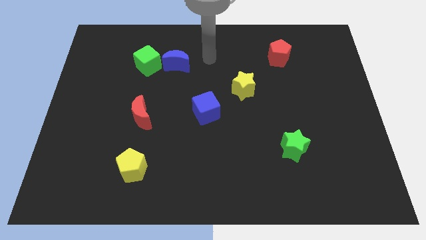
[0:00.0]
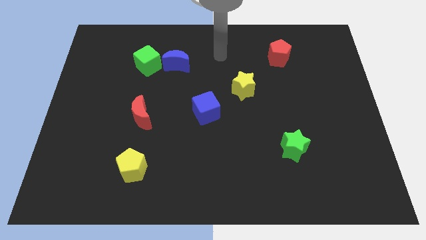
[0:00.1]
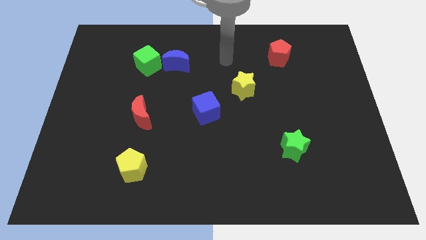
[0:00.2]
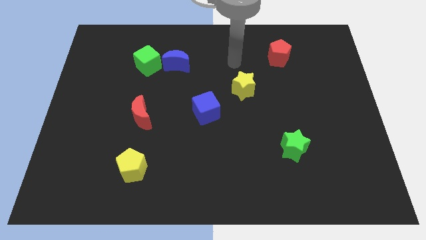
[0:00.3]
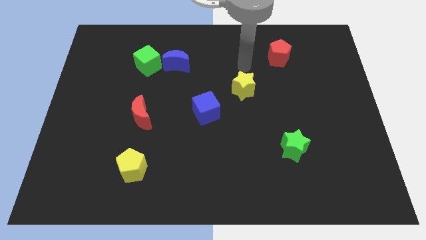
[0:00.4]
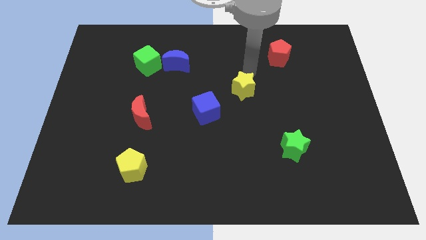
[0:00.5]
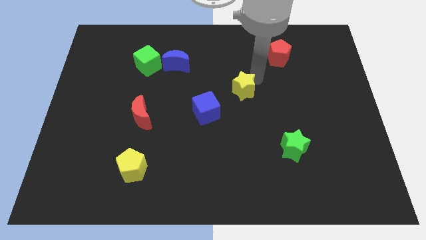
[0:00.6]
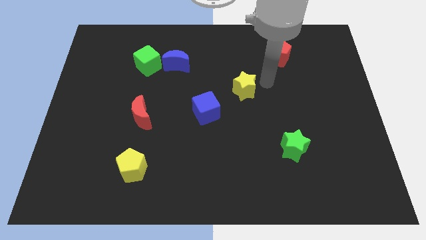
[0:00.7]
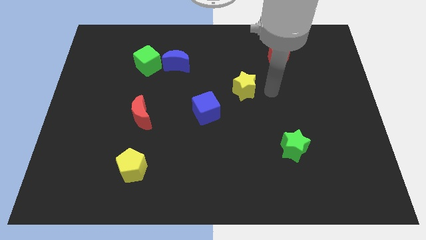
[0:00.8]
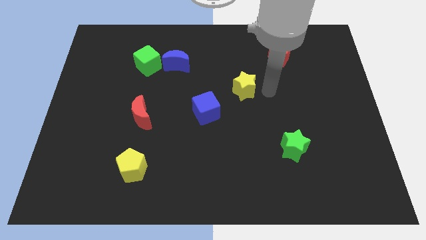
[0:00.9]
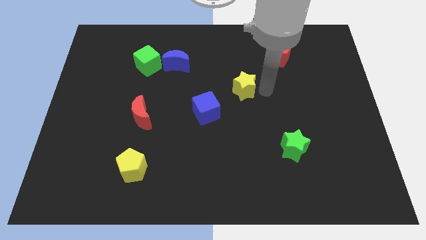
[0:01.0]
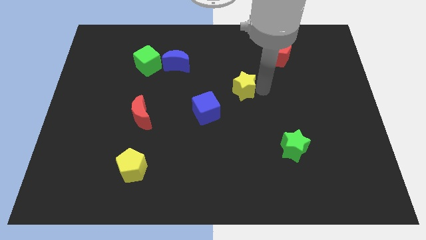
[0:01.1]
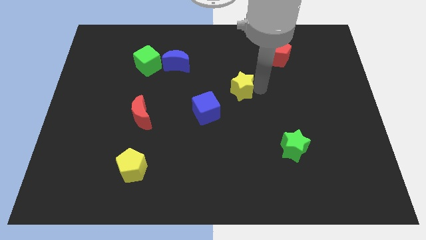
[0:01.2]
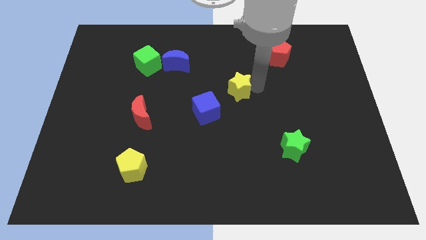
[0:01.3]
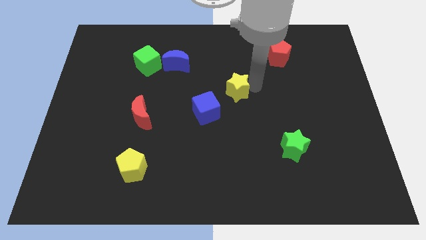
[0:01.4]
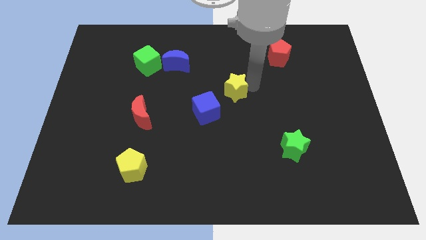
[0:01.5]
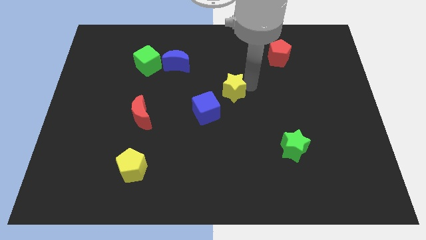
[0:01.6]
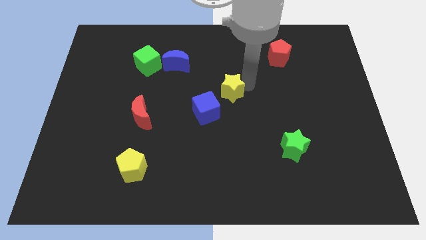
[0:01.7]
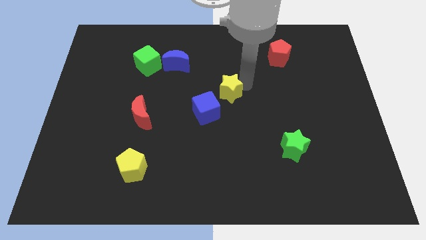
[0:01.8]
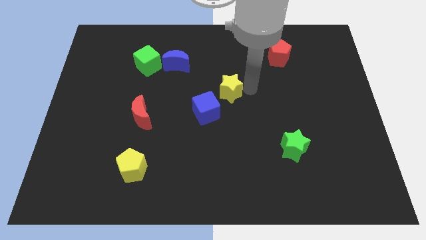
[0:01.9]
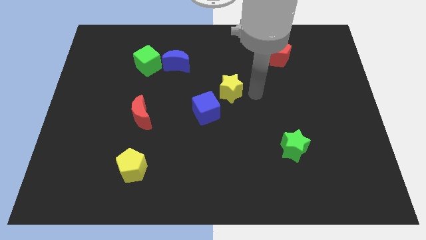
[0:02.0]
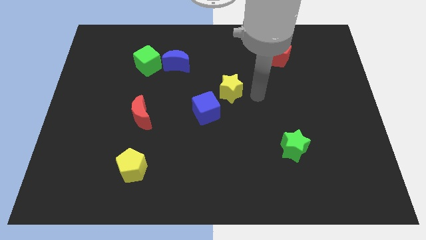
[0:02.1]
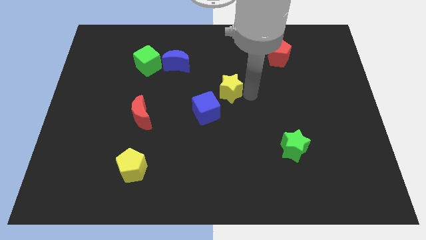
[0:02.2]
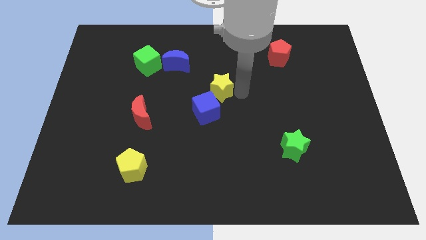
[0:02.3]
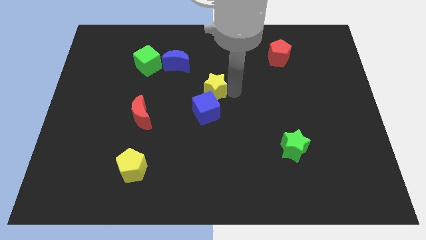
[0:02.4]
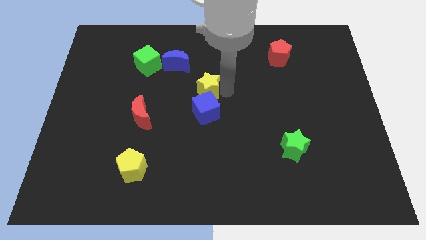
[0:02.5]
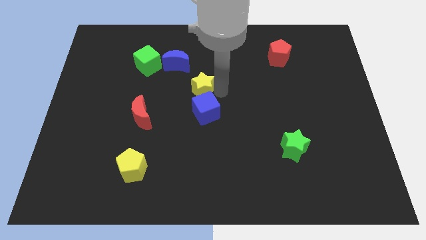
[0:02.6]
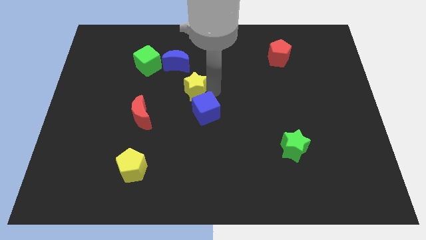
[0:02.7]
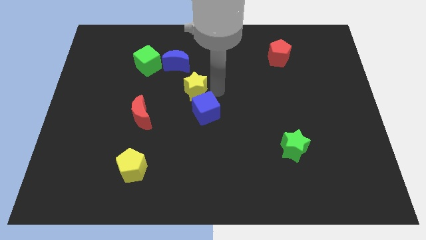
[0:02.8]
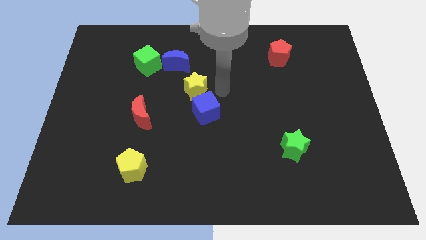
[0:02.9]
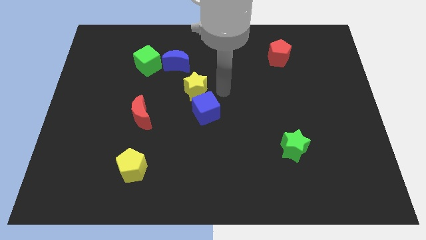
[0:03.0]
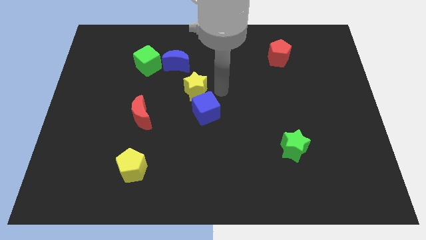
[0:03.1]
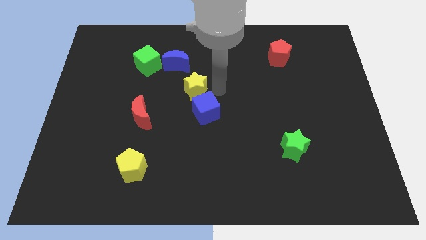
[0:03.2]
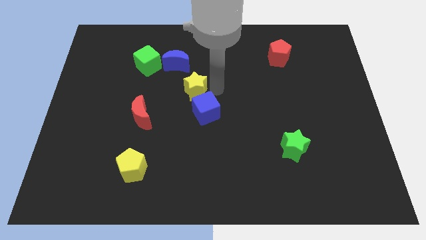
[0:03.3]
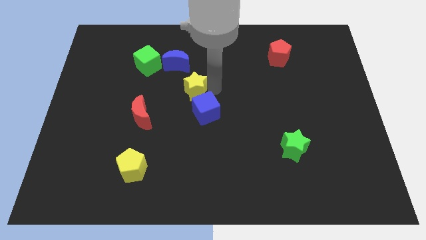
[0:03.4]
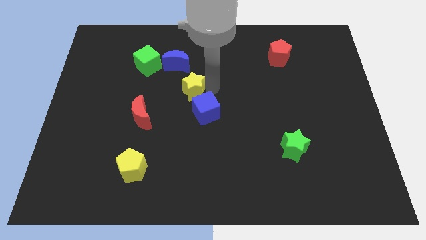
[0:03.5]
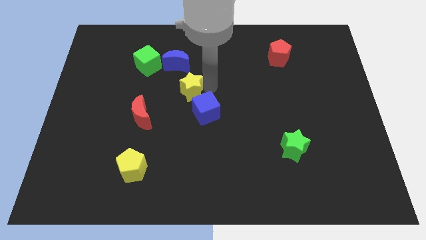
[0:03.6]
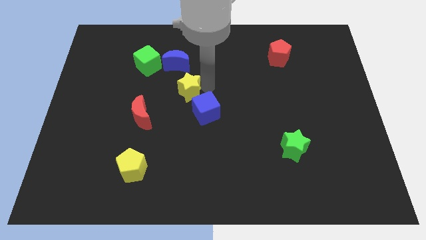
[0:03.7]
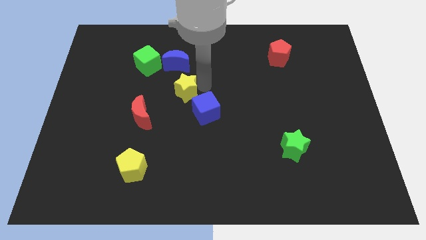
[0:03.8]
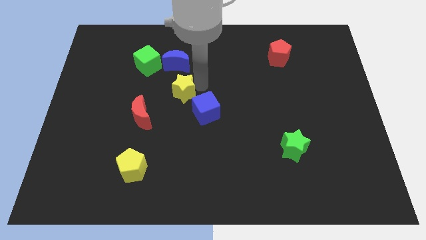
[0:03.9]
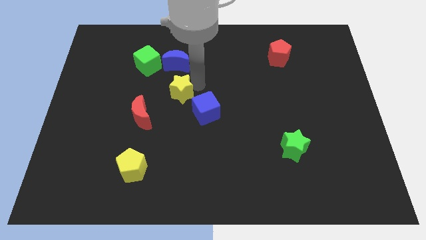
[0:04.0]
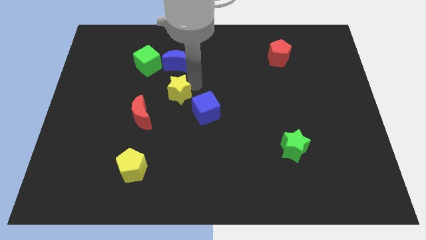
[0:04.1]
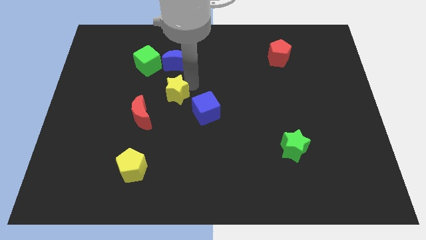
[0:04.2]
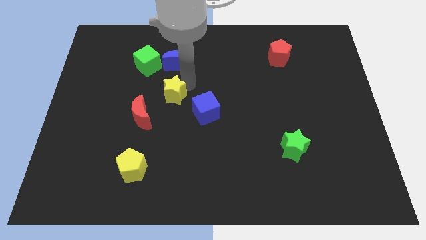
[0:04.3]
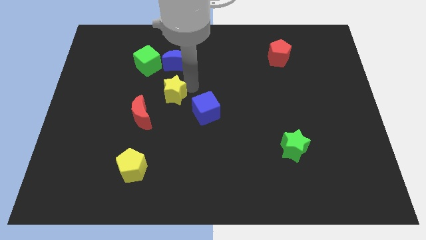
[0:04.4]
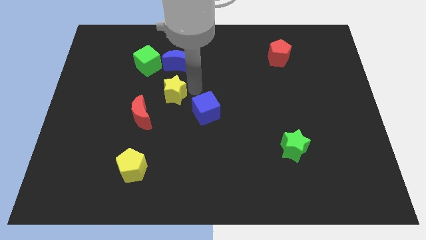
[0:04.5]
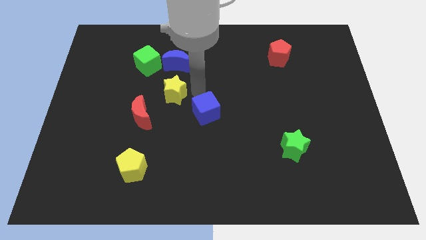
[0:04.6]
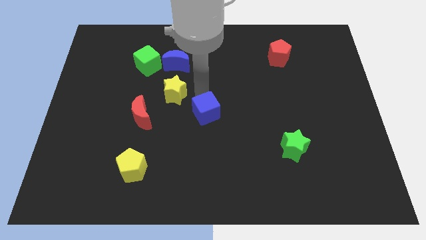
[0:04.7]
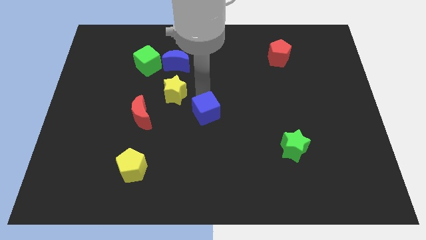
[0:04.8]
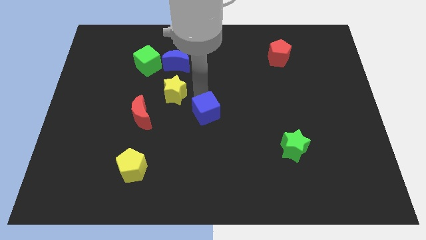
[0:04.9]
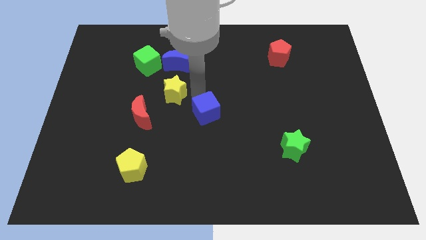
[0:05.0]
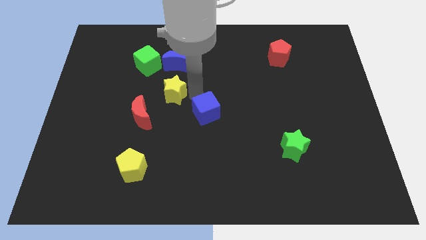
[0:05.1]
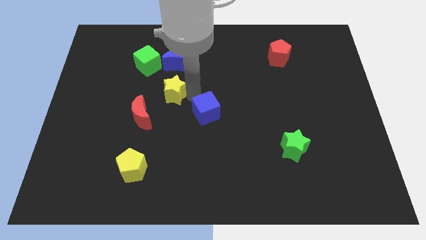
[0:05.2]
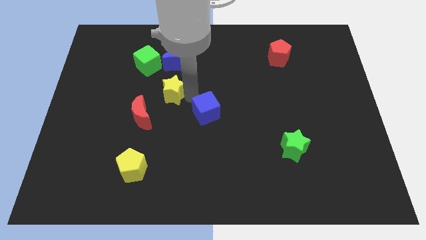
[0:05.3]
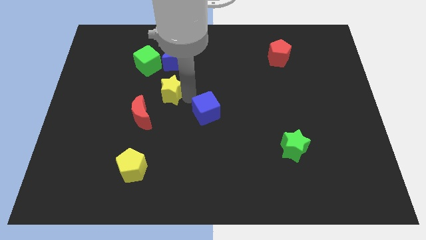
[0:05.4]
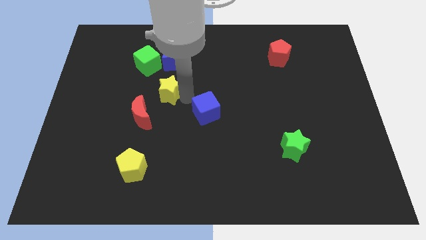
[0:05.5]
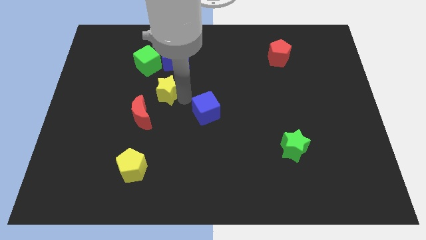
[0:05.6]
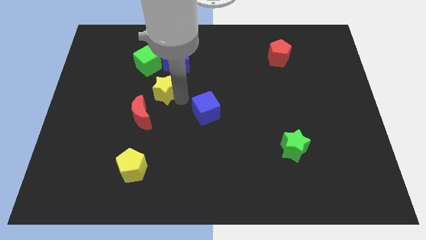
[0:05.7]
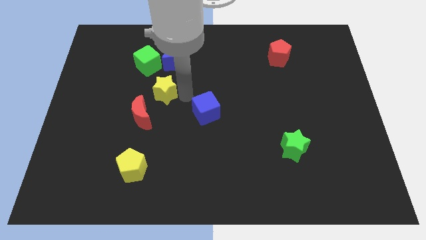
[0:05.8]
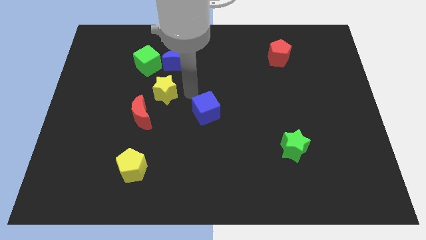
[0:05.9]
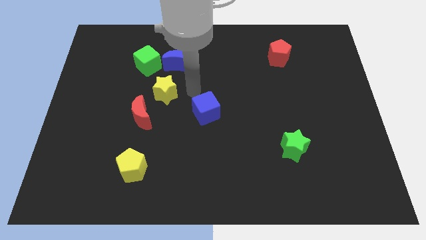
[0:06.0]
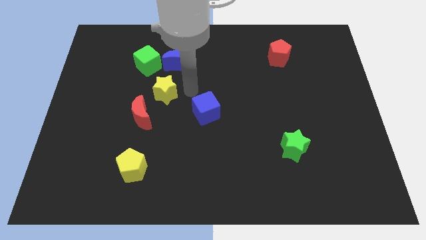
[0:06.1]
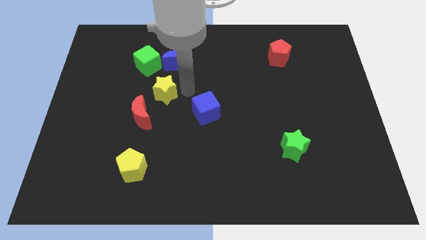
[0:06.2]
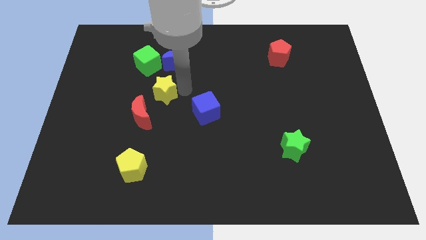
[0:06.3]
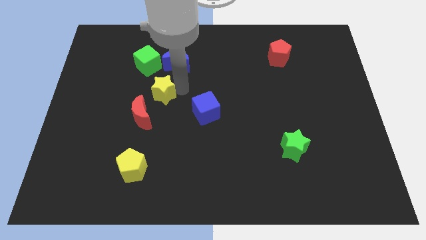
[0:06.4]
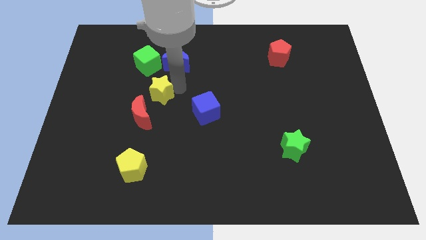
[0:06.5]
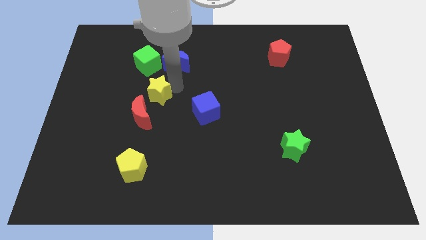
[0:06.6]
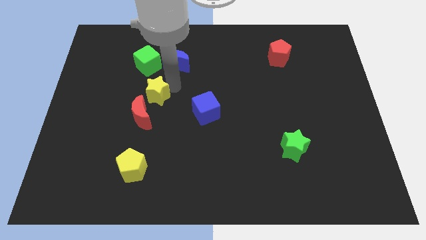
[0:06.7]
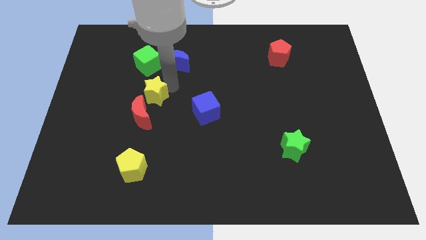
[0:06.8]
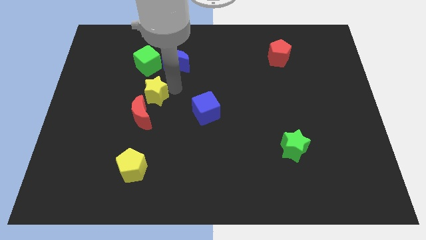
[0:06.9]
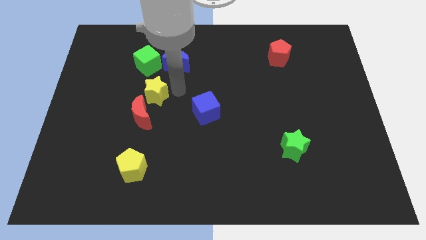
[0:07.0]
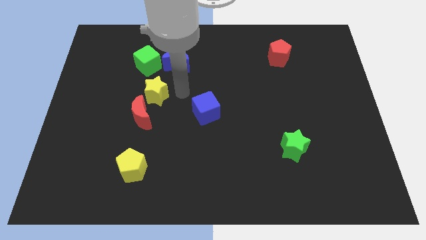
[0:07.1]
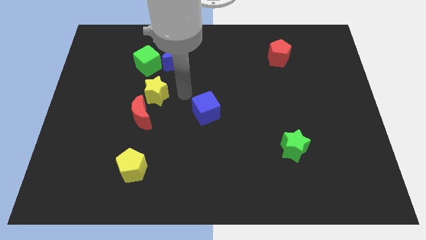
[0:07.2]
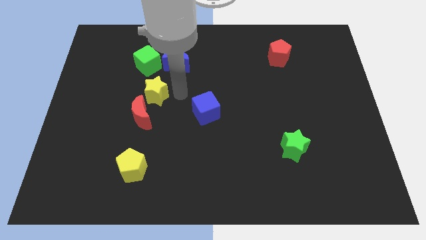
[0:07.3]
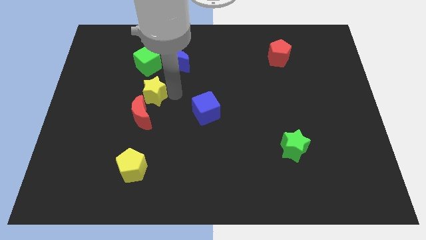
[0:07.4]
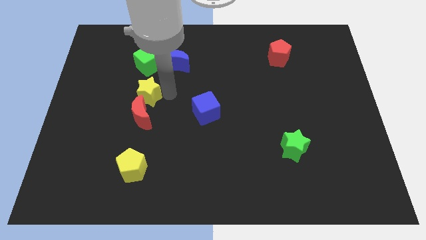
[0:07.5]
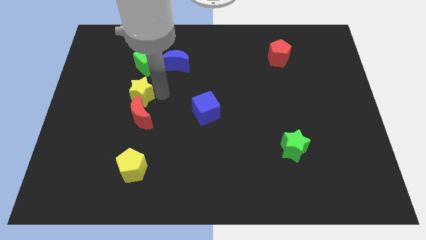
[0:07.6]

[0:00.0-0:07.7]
slide the yellow star to the top left side of the red moon
